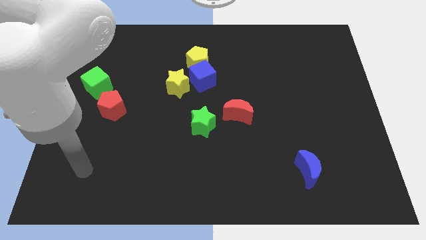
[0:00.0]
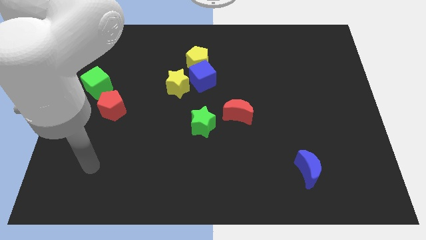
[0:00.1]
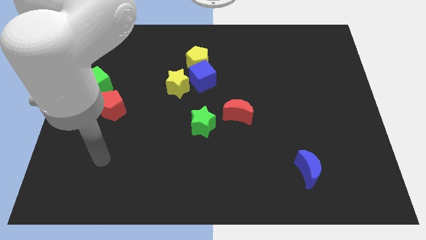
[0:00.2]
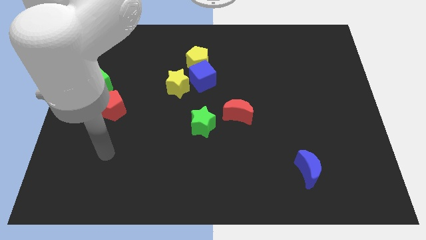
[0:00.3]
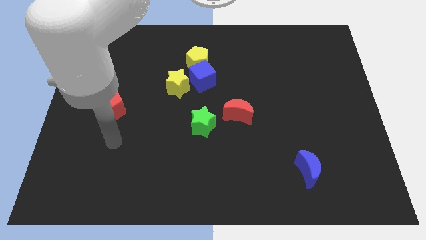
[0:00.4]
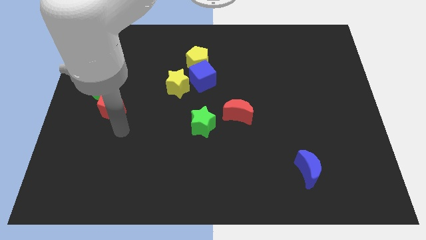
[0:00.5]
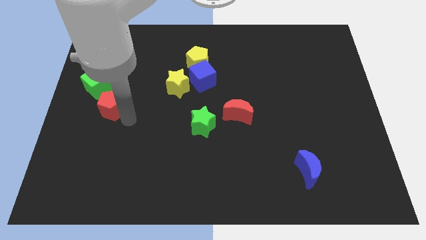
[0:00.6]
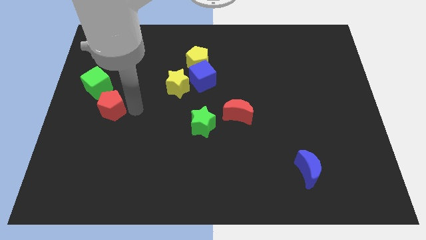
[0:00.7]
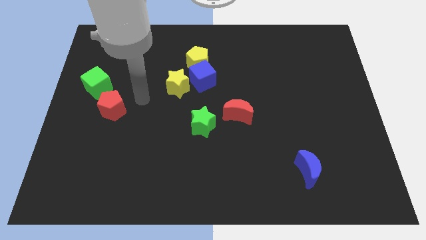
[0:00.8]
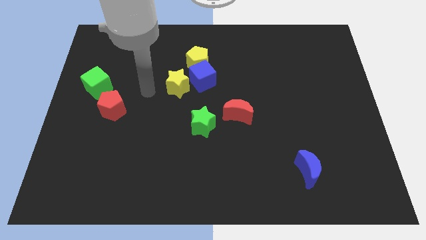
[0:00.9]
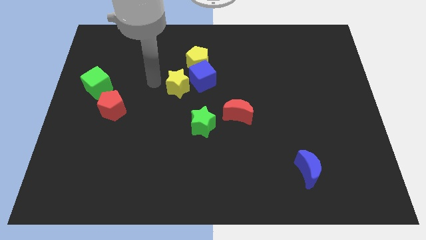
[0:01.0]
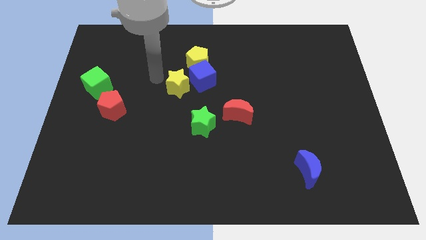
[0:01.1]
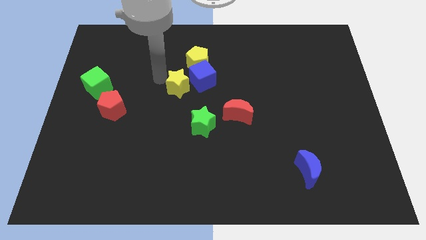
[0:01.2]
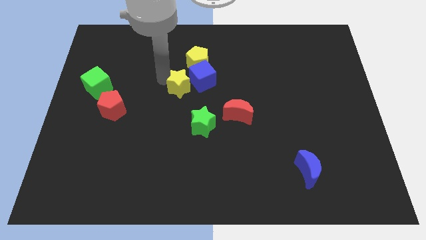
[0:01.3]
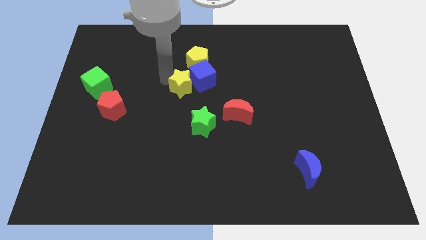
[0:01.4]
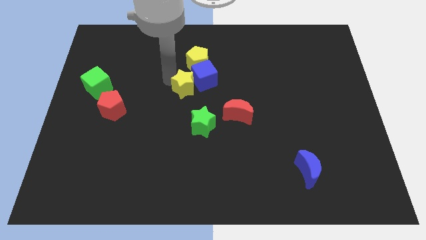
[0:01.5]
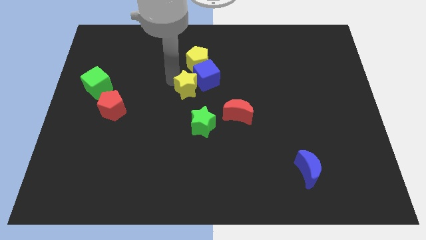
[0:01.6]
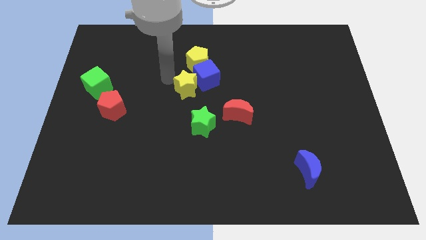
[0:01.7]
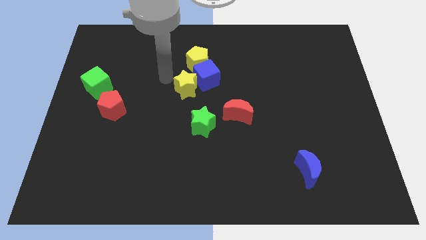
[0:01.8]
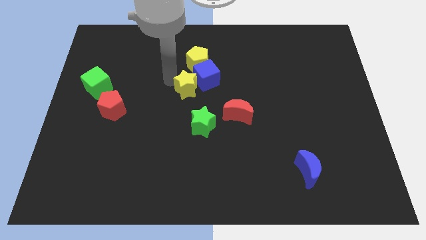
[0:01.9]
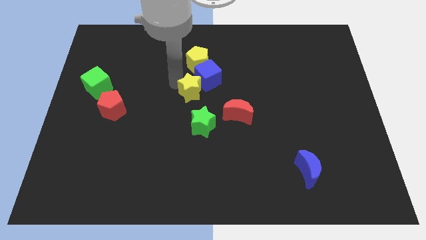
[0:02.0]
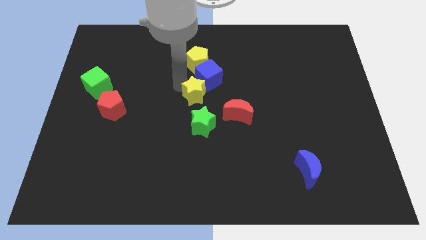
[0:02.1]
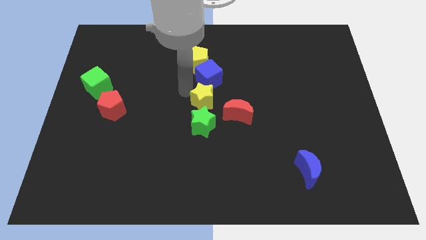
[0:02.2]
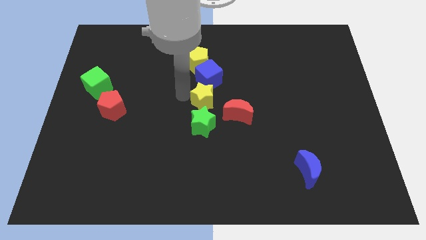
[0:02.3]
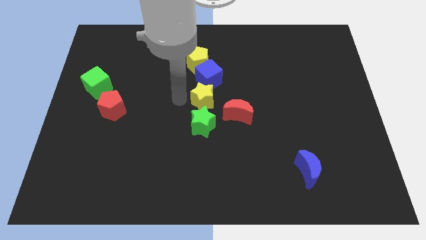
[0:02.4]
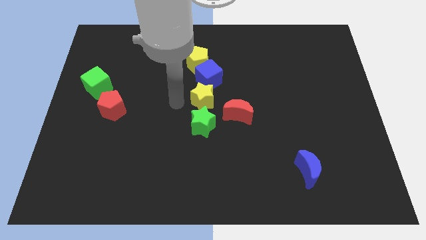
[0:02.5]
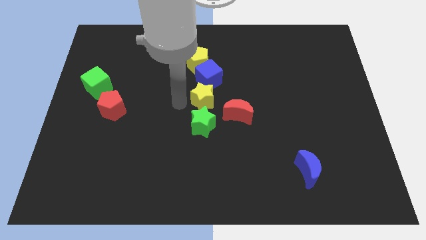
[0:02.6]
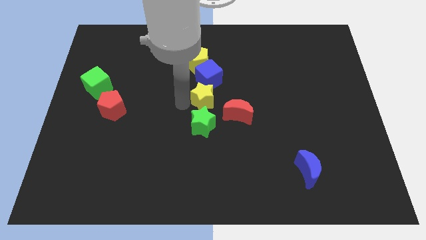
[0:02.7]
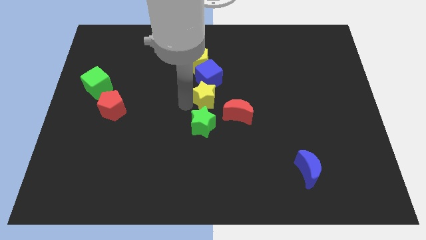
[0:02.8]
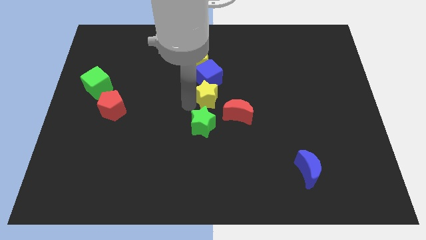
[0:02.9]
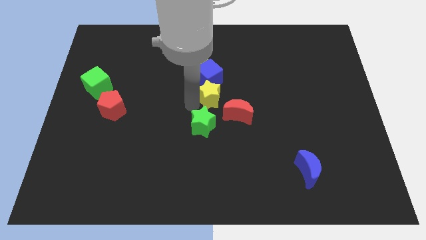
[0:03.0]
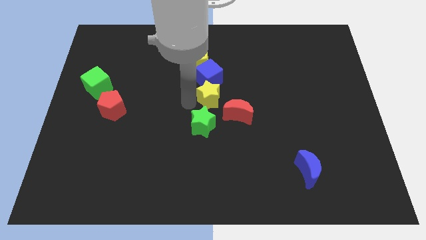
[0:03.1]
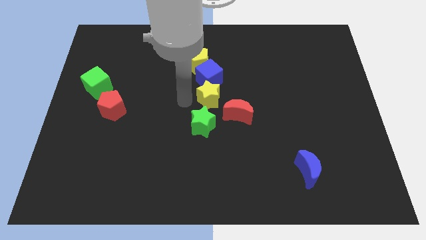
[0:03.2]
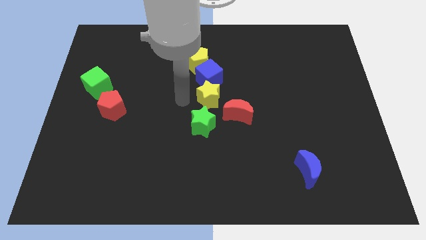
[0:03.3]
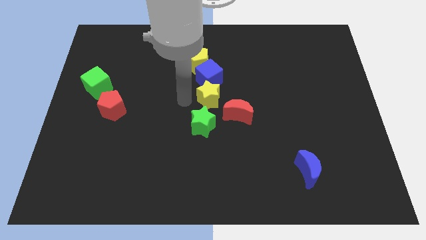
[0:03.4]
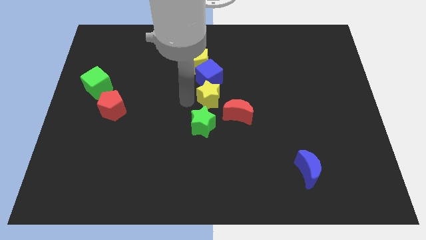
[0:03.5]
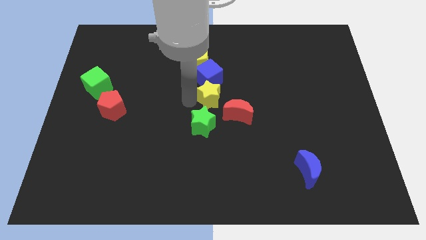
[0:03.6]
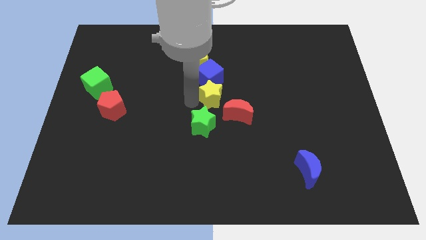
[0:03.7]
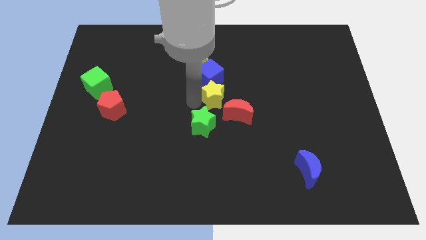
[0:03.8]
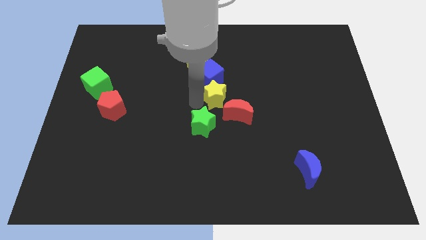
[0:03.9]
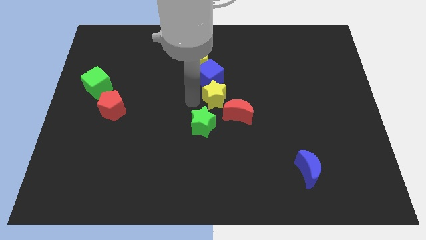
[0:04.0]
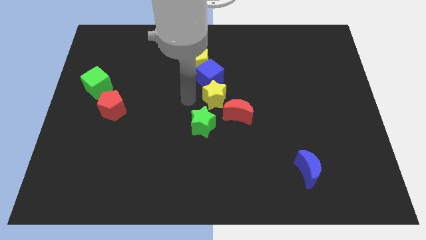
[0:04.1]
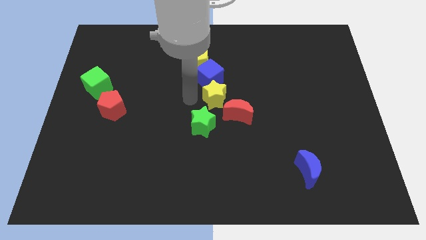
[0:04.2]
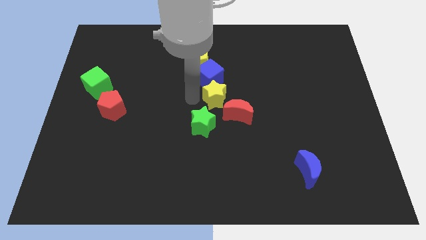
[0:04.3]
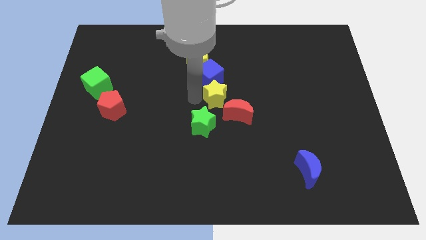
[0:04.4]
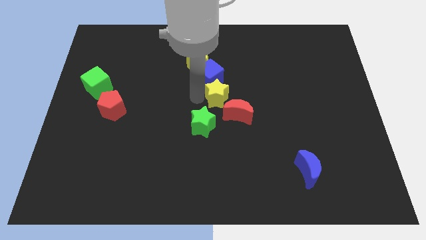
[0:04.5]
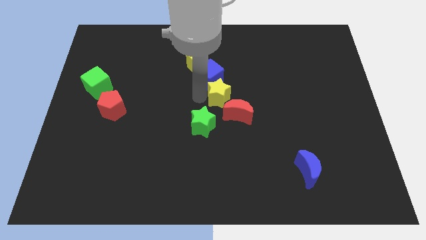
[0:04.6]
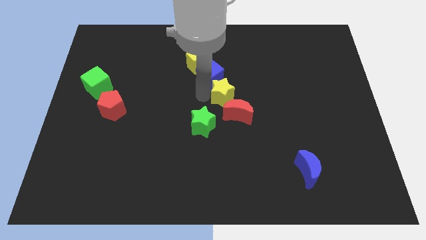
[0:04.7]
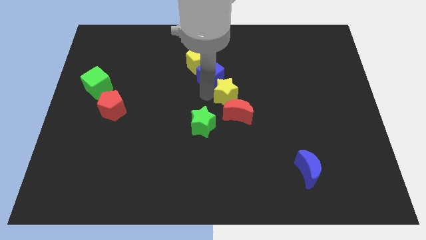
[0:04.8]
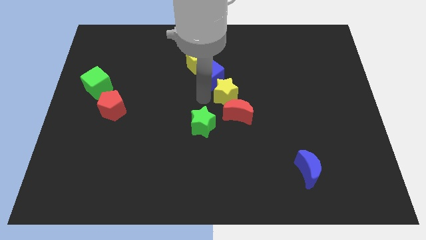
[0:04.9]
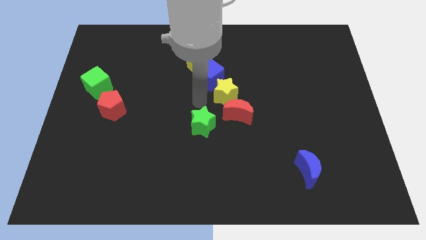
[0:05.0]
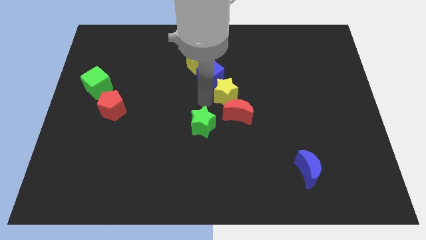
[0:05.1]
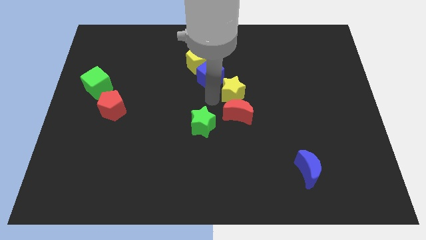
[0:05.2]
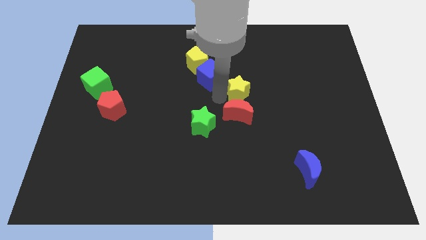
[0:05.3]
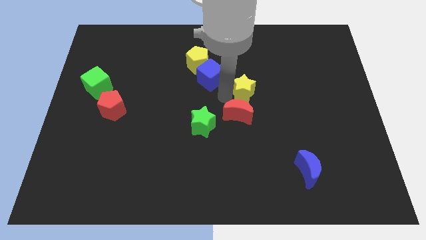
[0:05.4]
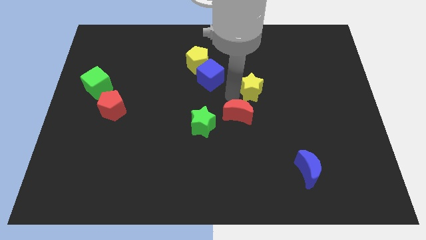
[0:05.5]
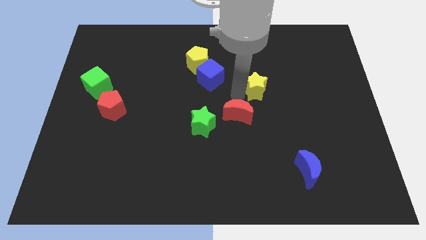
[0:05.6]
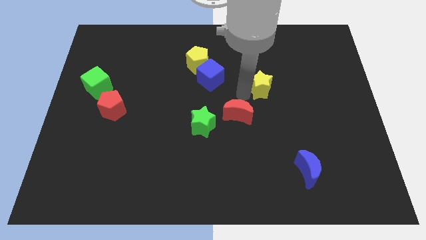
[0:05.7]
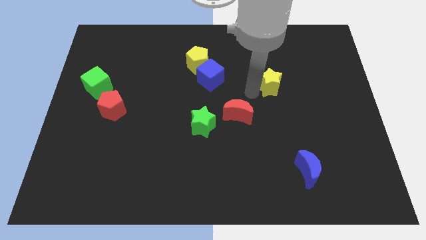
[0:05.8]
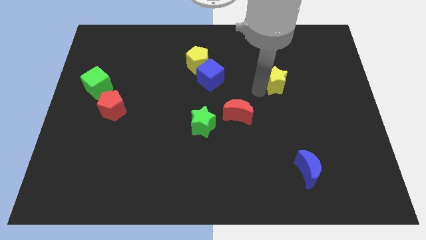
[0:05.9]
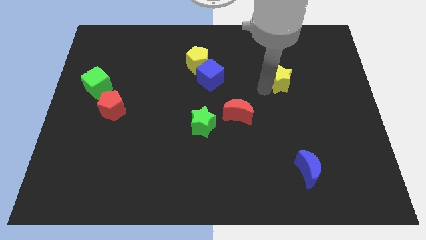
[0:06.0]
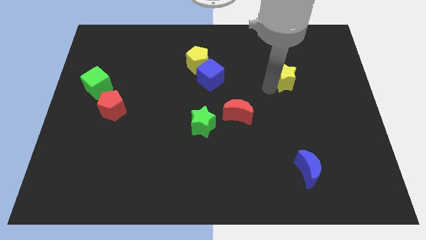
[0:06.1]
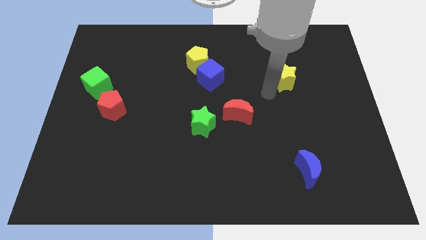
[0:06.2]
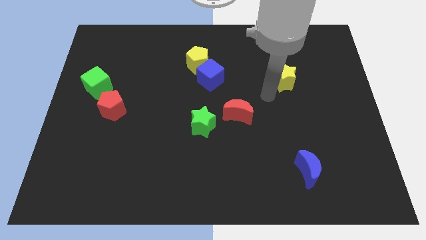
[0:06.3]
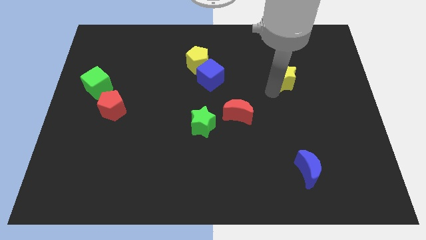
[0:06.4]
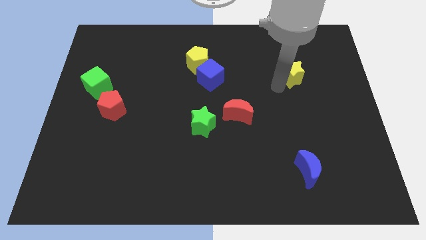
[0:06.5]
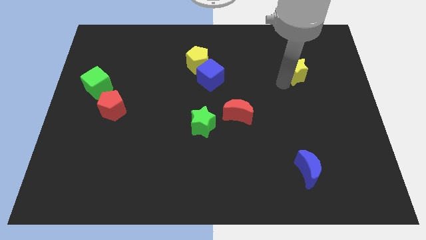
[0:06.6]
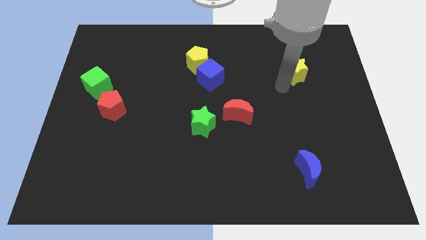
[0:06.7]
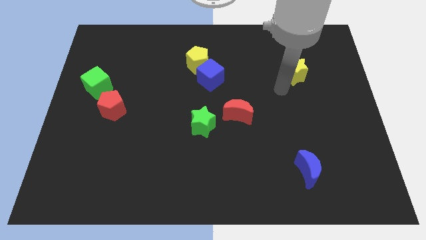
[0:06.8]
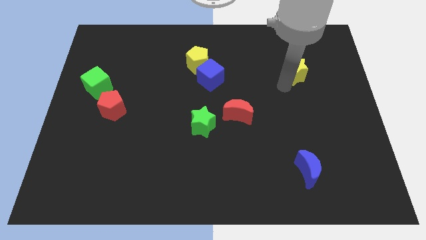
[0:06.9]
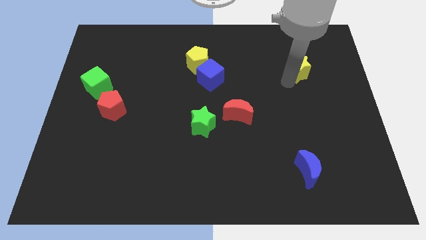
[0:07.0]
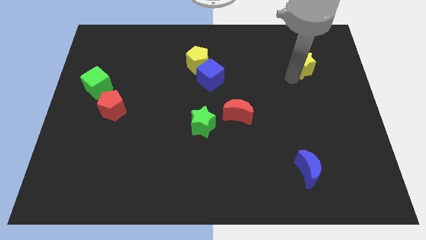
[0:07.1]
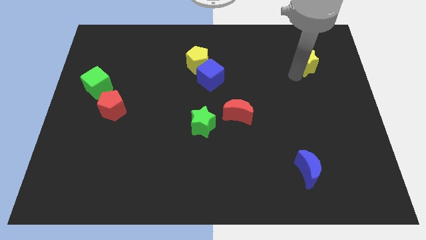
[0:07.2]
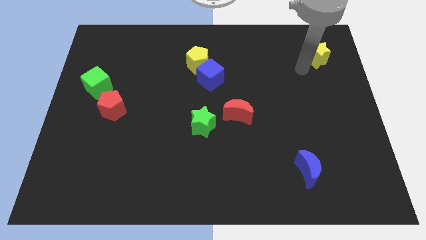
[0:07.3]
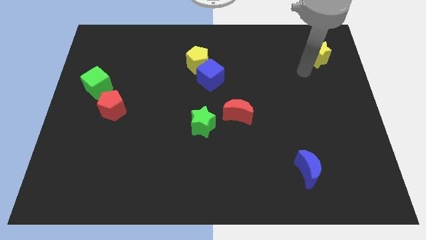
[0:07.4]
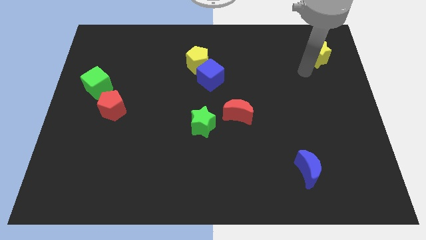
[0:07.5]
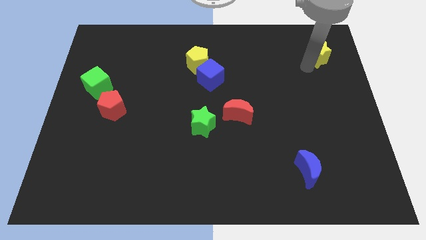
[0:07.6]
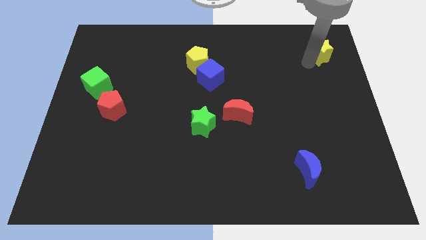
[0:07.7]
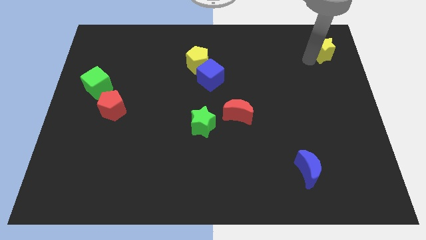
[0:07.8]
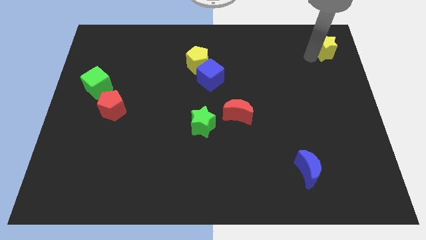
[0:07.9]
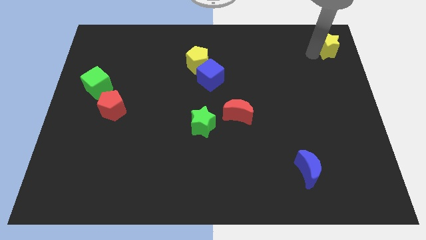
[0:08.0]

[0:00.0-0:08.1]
slide the yellow star to the upper right corner
